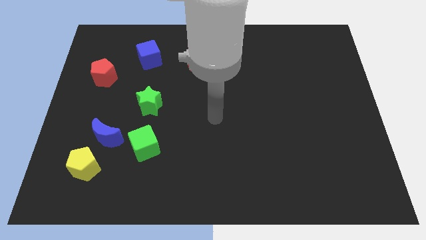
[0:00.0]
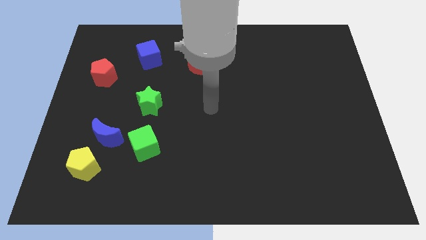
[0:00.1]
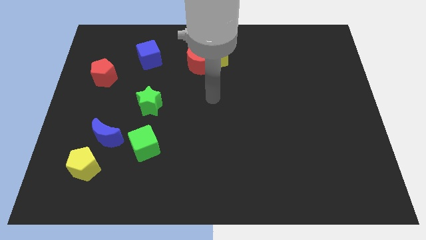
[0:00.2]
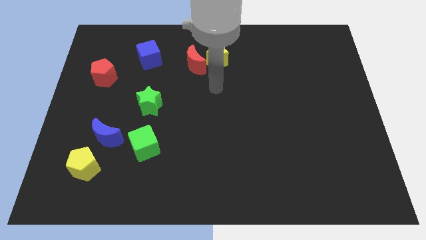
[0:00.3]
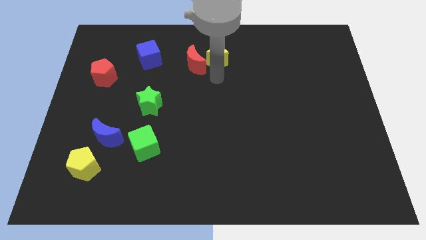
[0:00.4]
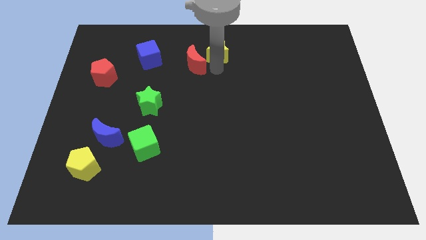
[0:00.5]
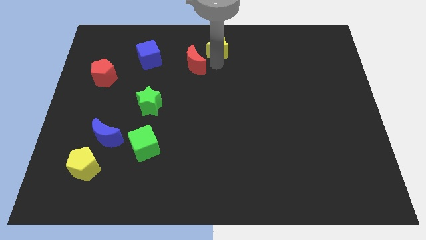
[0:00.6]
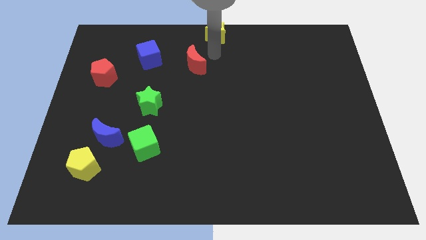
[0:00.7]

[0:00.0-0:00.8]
pull the red moon apart from the yellow star

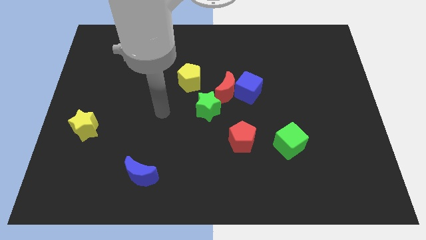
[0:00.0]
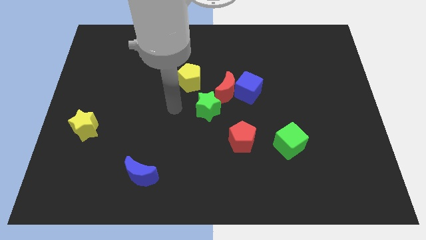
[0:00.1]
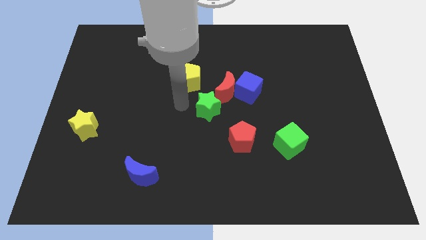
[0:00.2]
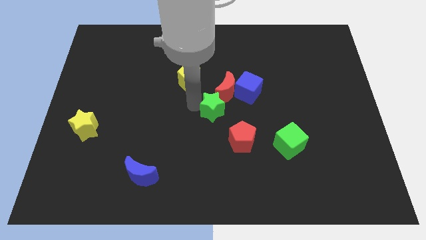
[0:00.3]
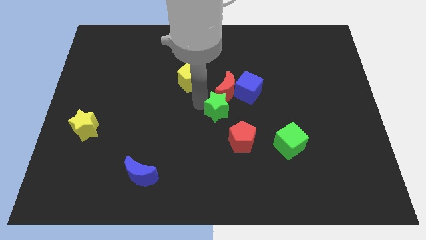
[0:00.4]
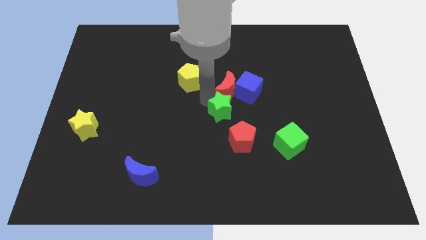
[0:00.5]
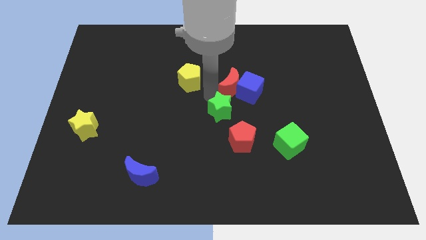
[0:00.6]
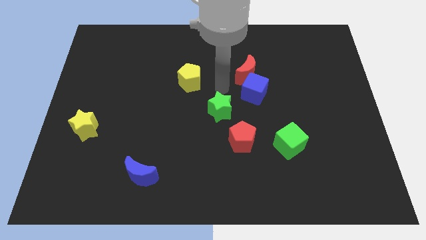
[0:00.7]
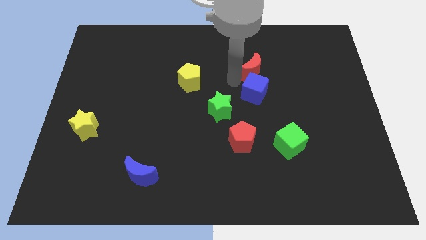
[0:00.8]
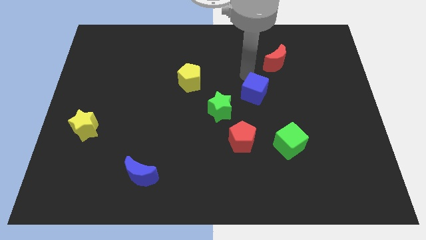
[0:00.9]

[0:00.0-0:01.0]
move the blue cube away from the red moon

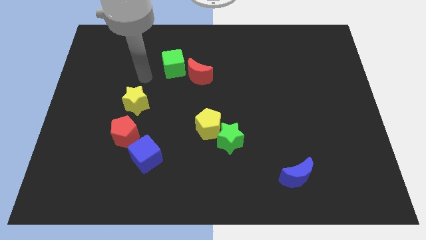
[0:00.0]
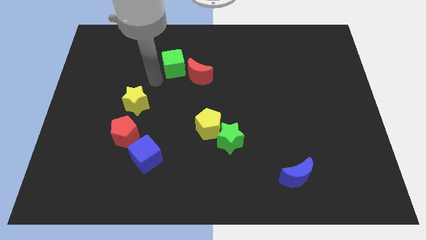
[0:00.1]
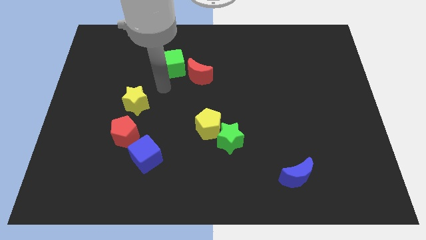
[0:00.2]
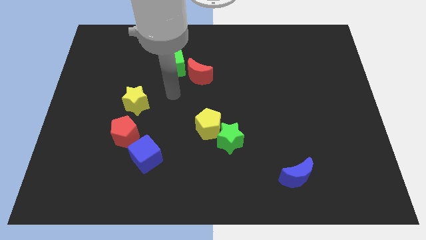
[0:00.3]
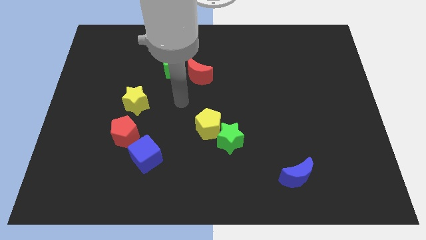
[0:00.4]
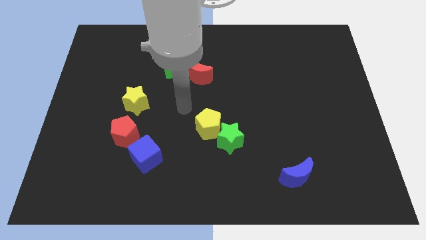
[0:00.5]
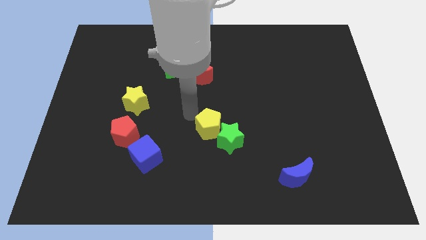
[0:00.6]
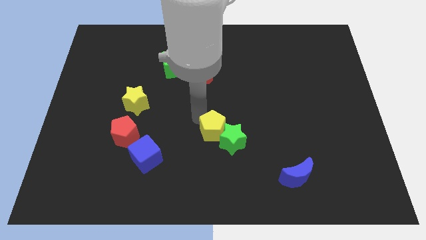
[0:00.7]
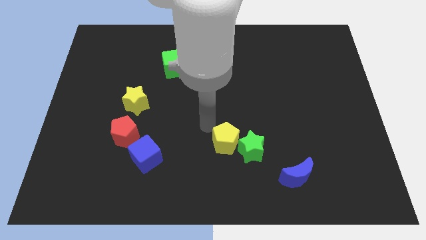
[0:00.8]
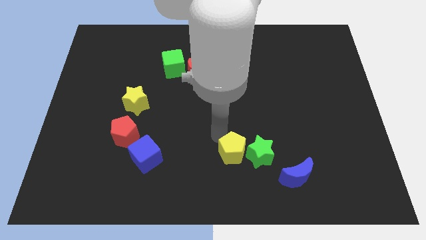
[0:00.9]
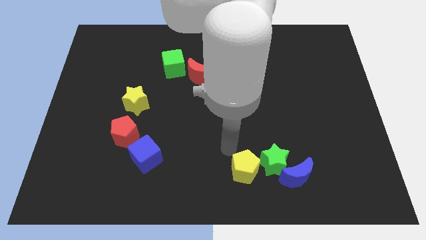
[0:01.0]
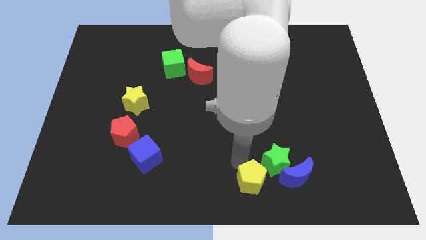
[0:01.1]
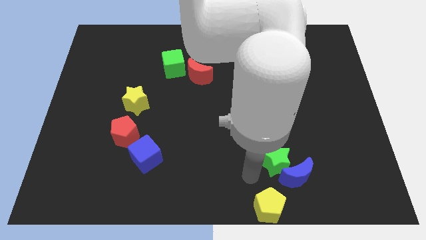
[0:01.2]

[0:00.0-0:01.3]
move the green star away from the yellow pentagon

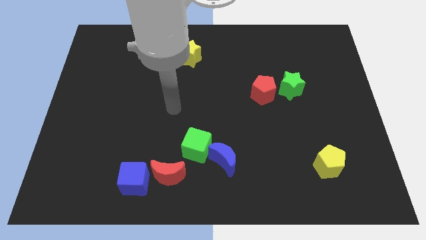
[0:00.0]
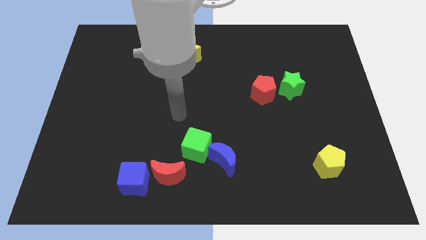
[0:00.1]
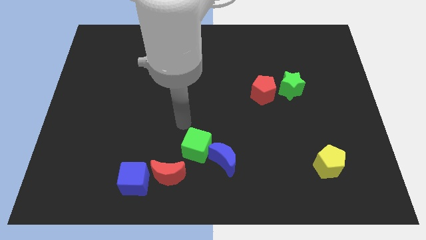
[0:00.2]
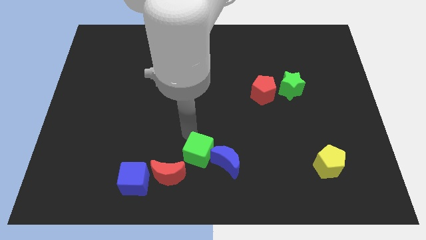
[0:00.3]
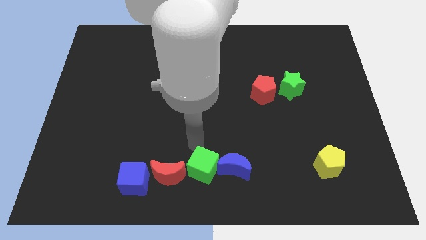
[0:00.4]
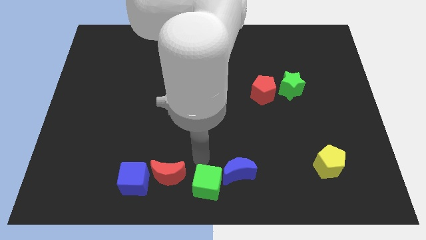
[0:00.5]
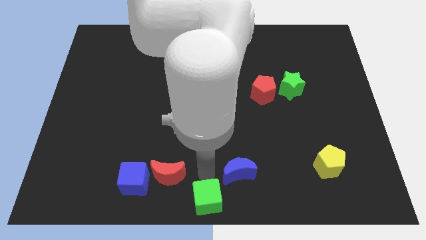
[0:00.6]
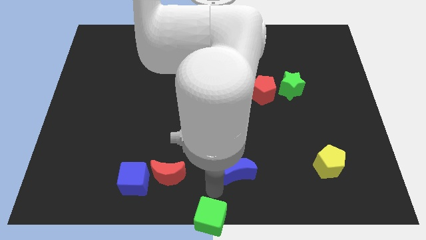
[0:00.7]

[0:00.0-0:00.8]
move the blue moon away from the green cube

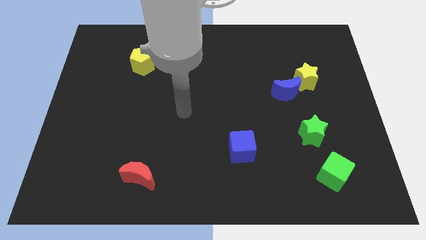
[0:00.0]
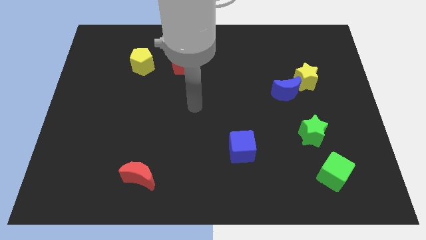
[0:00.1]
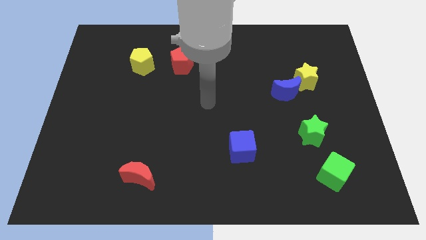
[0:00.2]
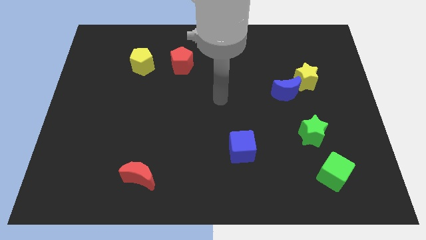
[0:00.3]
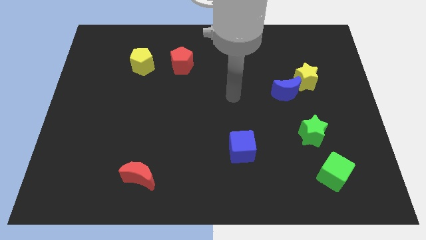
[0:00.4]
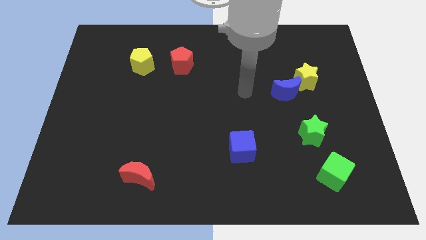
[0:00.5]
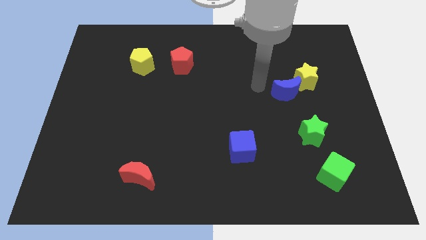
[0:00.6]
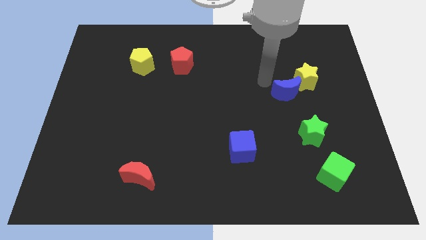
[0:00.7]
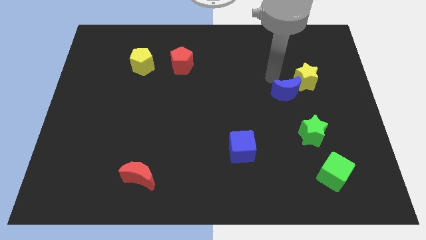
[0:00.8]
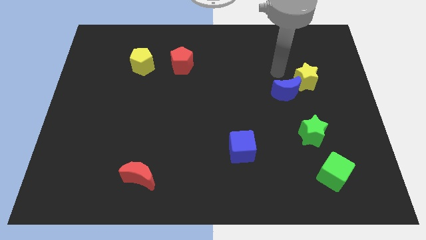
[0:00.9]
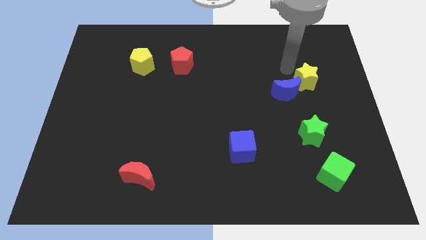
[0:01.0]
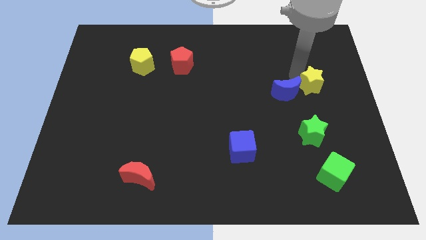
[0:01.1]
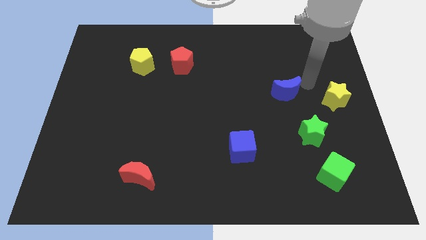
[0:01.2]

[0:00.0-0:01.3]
move the blue moon away from the yellow star

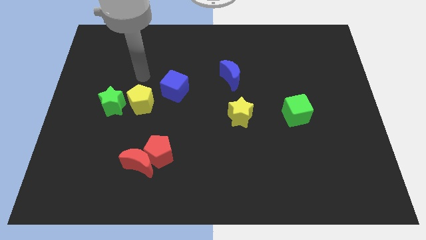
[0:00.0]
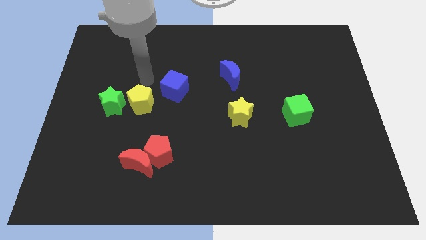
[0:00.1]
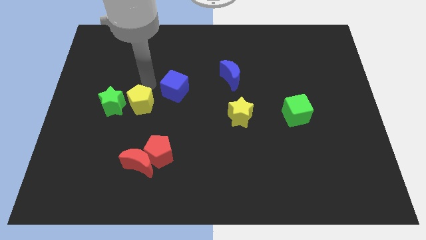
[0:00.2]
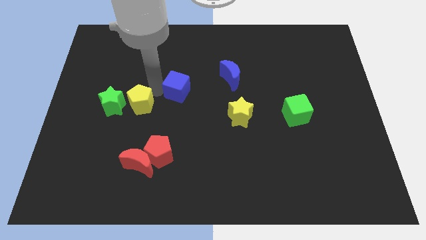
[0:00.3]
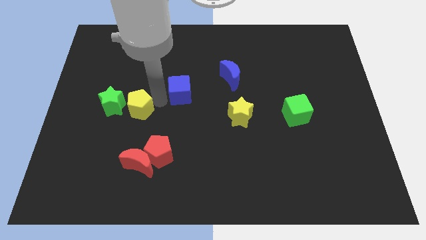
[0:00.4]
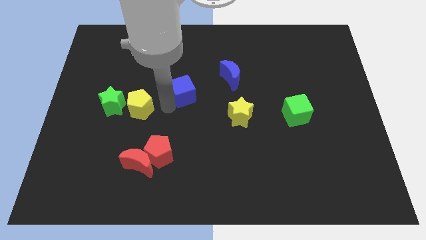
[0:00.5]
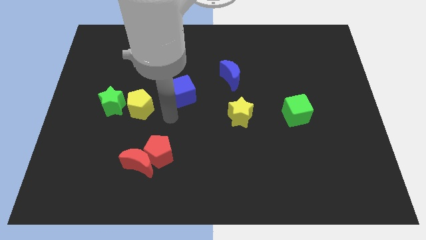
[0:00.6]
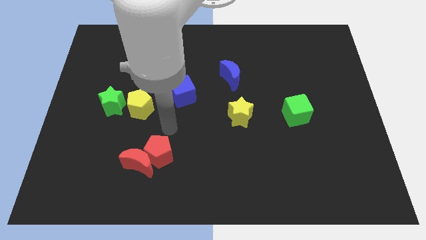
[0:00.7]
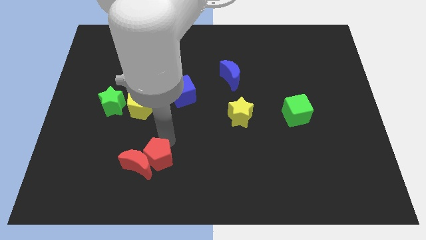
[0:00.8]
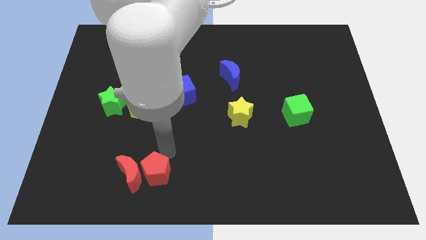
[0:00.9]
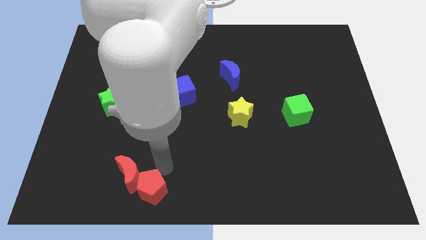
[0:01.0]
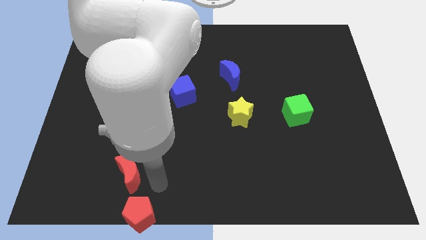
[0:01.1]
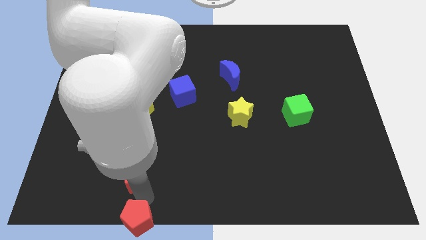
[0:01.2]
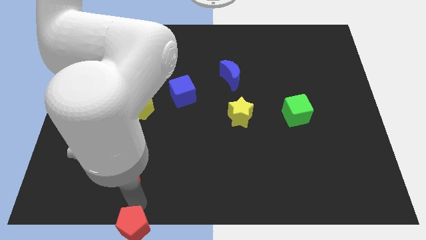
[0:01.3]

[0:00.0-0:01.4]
separate the red moon from the red pentagon

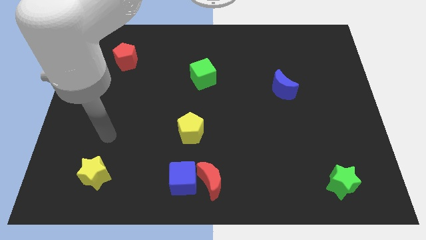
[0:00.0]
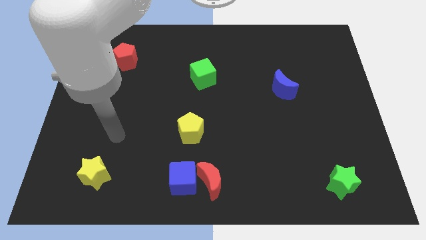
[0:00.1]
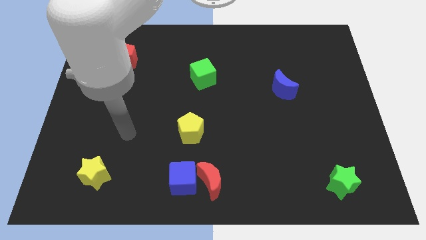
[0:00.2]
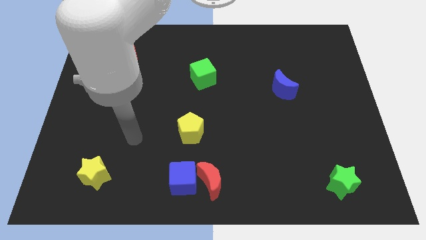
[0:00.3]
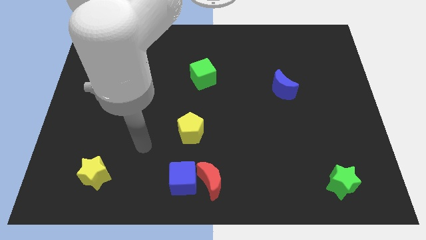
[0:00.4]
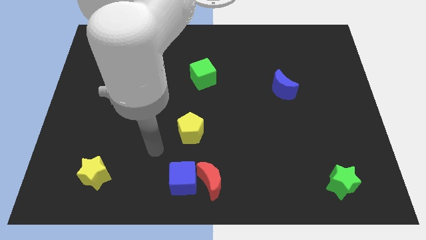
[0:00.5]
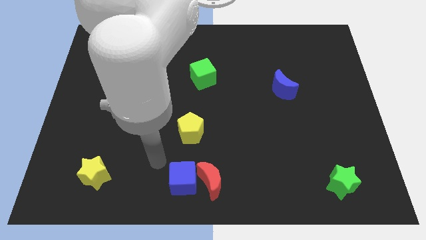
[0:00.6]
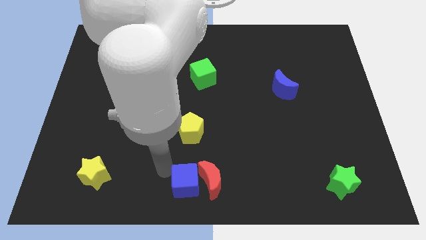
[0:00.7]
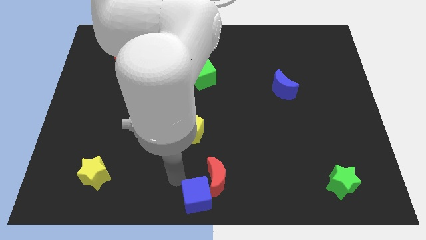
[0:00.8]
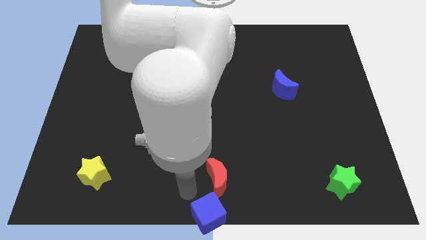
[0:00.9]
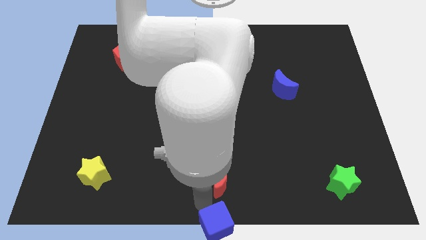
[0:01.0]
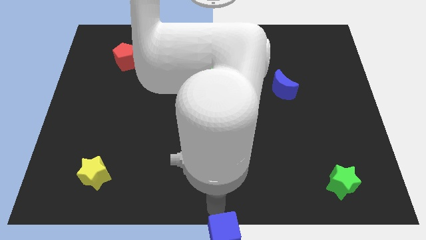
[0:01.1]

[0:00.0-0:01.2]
separate the red moon from the blue cube

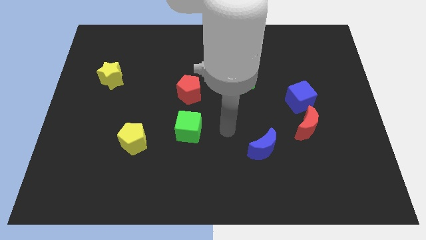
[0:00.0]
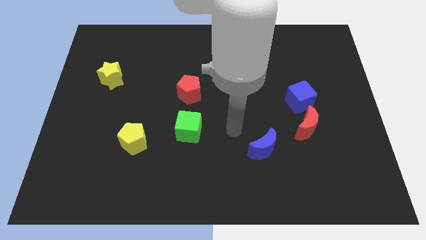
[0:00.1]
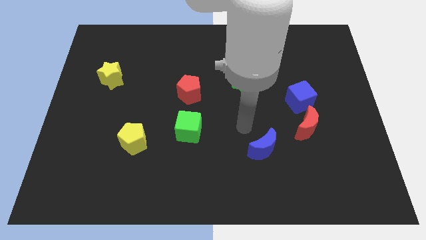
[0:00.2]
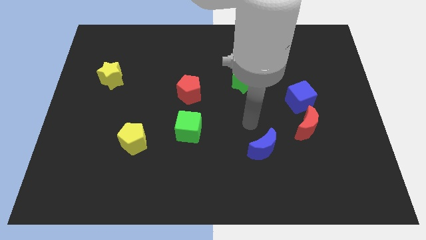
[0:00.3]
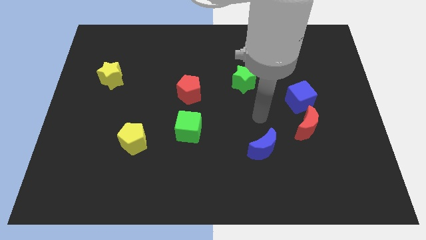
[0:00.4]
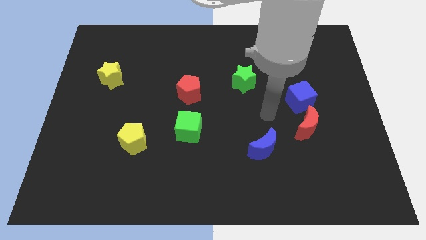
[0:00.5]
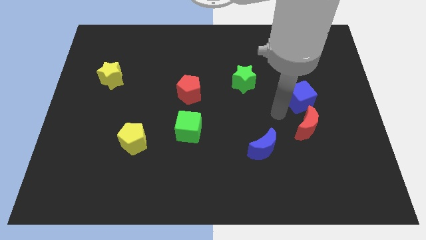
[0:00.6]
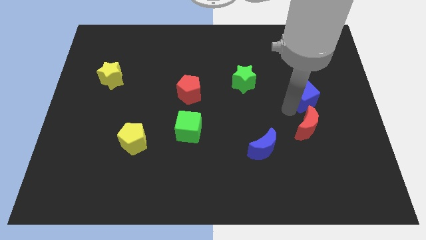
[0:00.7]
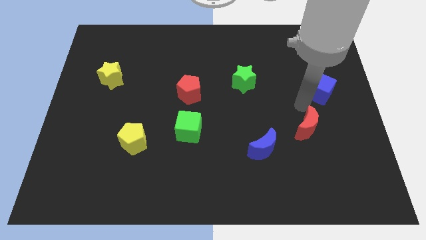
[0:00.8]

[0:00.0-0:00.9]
pull the red moon apart from the blue cube

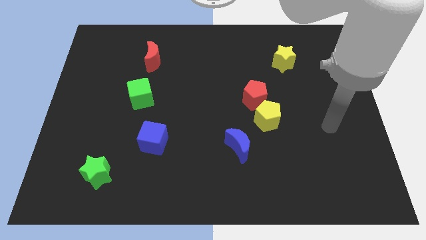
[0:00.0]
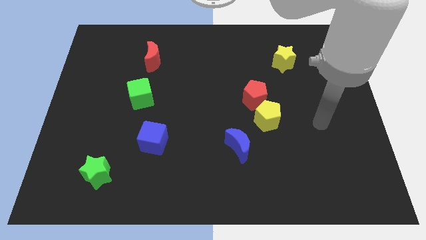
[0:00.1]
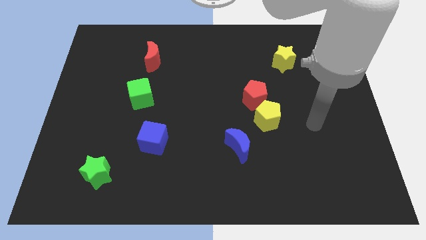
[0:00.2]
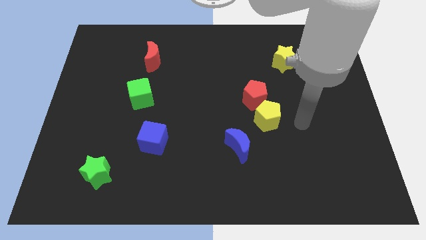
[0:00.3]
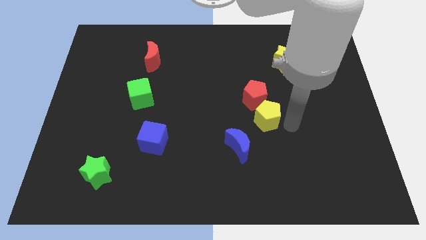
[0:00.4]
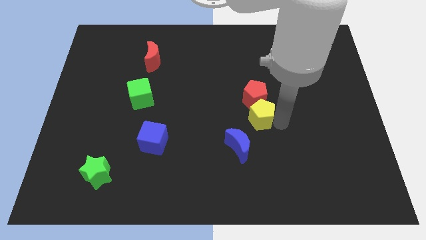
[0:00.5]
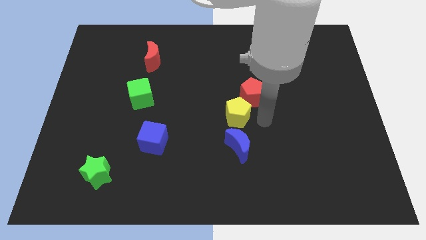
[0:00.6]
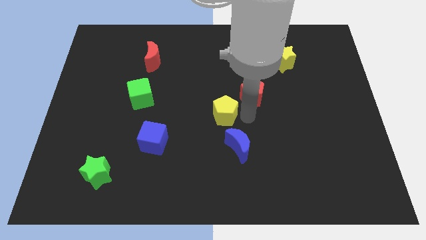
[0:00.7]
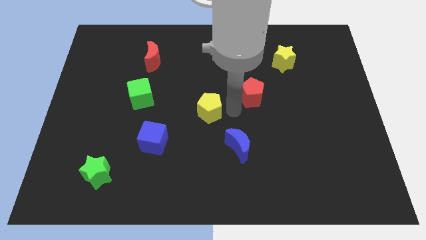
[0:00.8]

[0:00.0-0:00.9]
pull the red pentagon apart from the yellow pentagon
